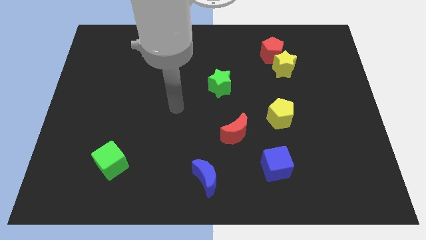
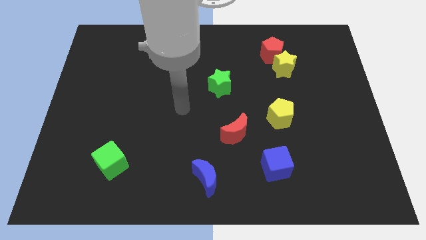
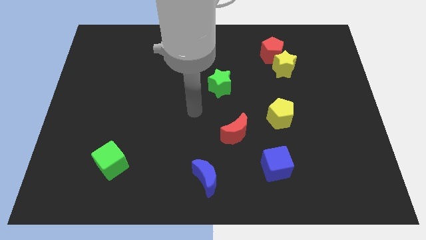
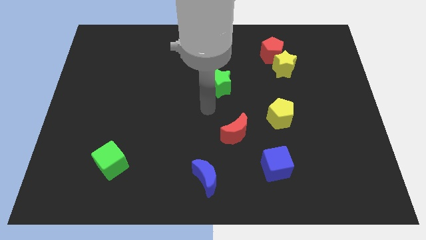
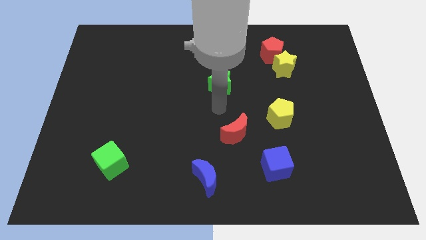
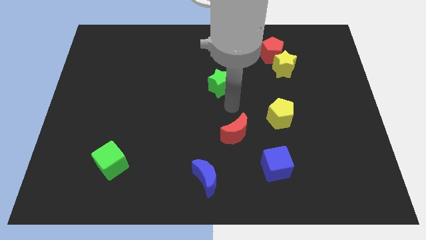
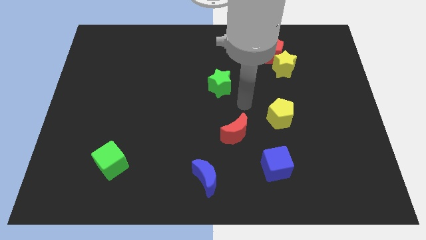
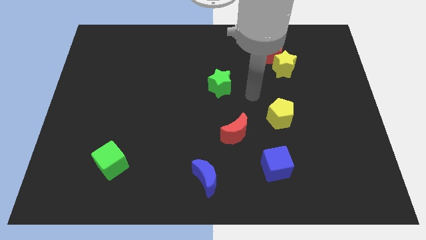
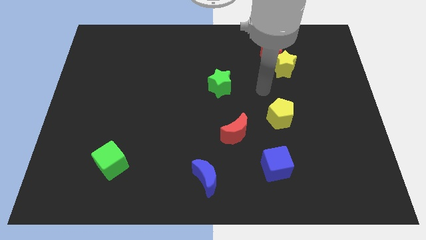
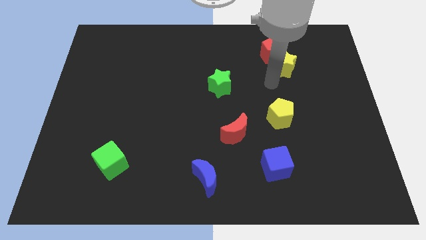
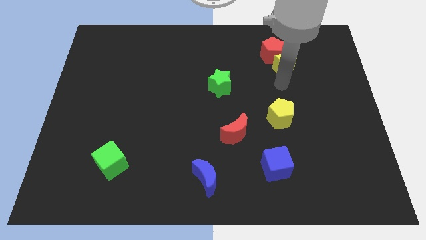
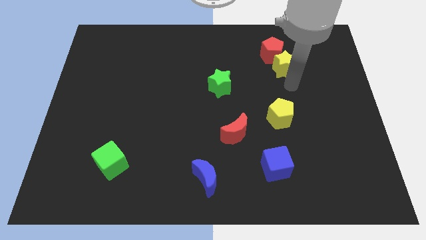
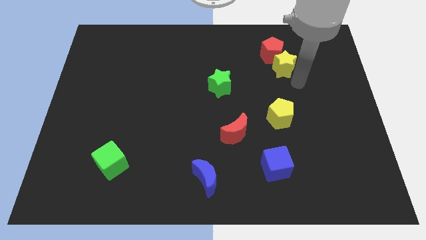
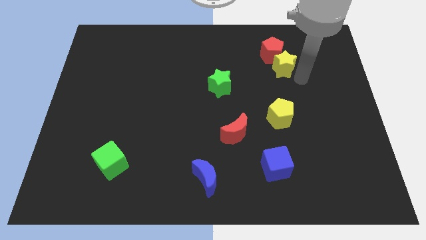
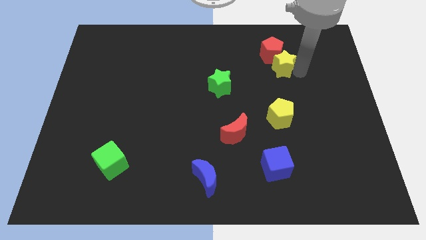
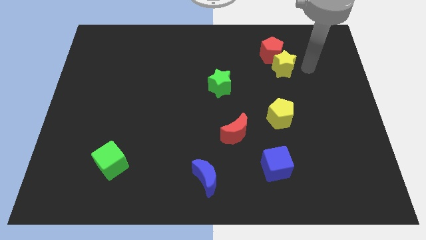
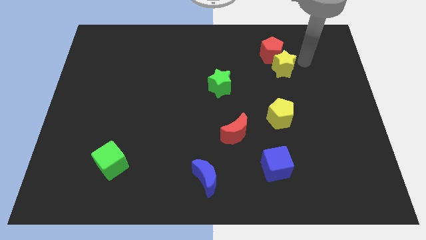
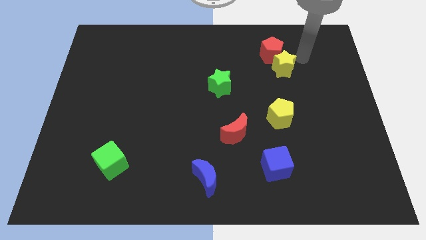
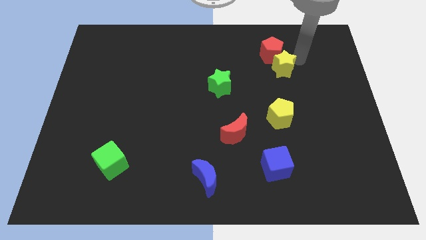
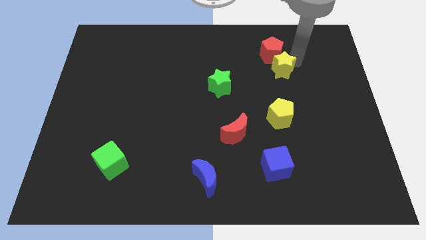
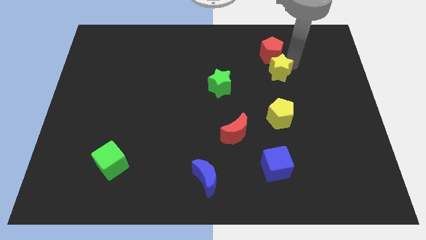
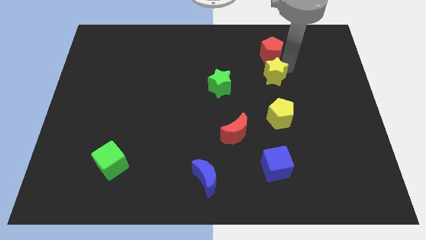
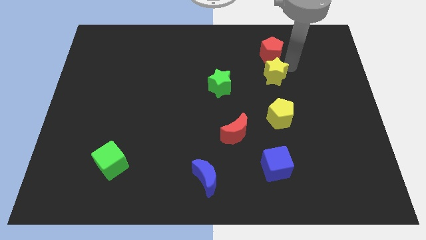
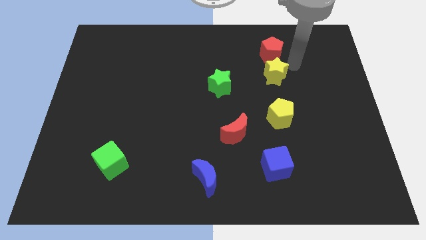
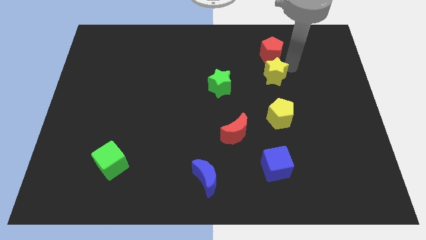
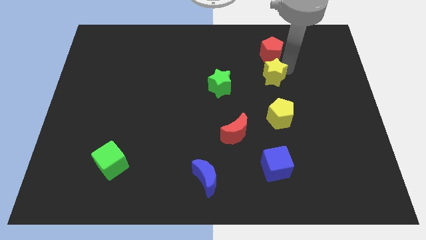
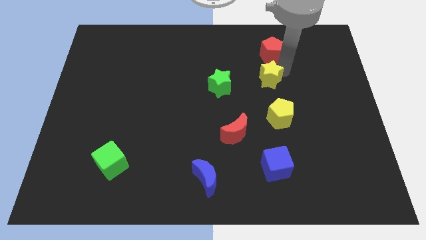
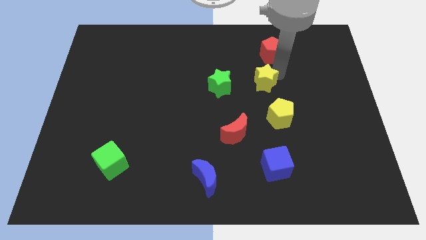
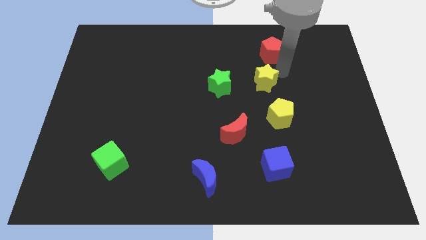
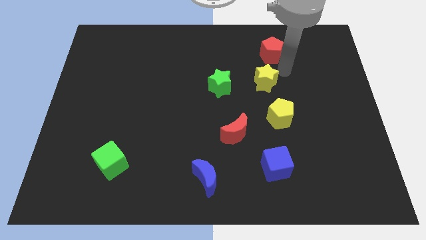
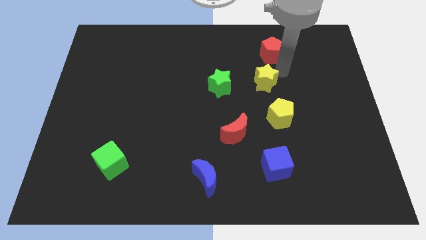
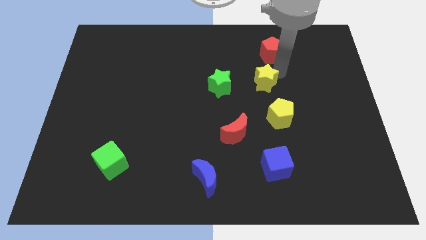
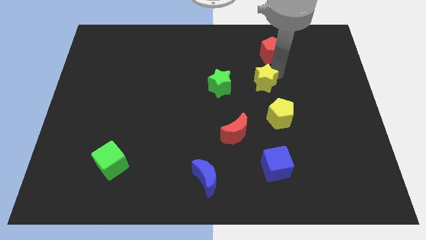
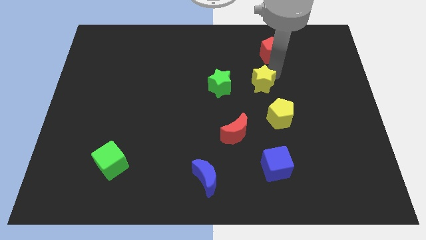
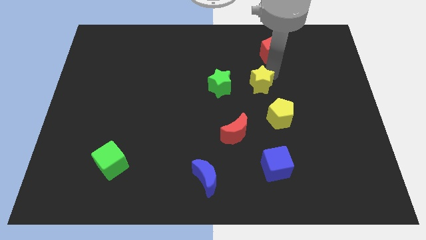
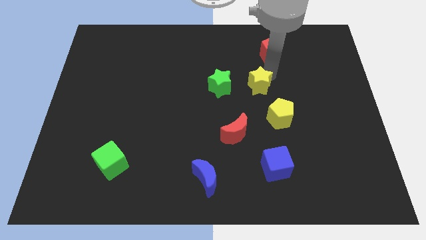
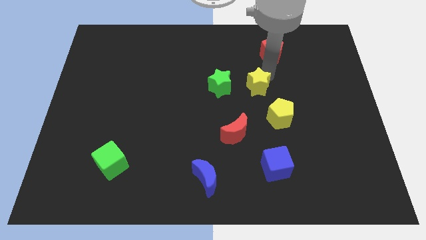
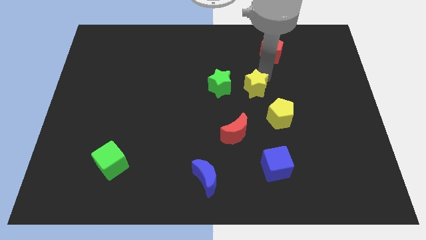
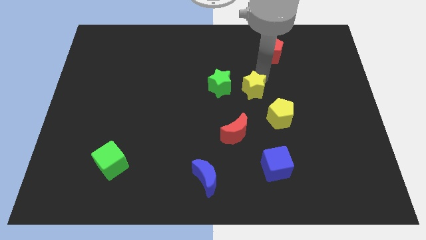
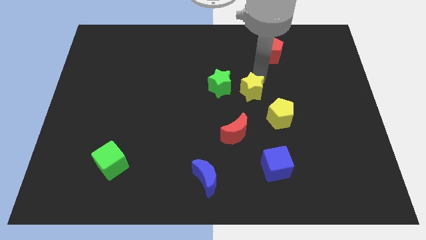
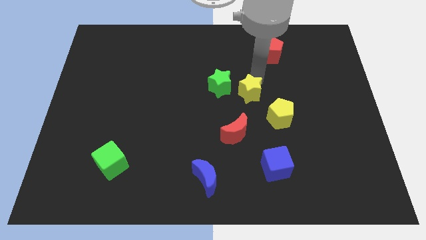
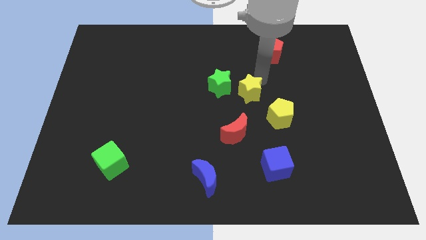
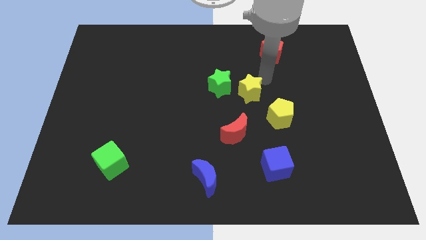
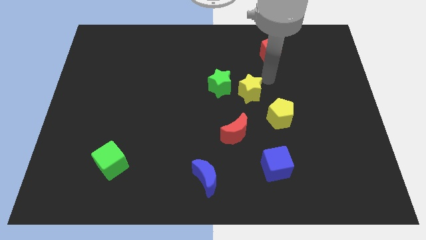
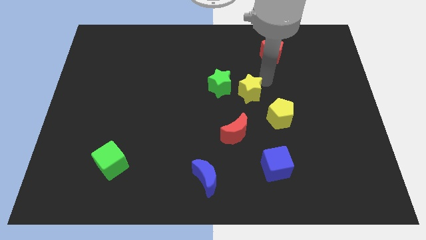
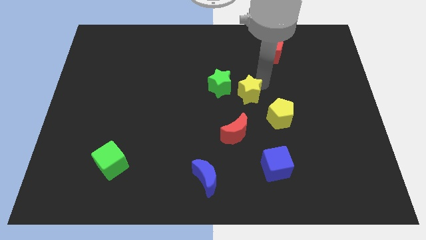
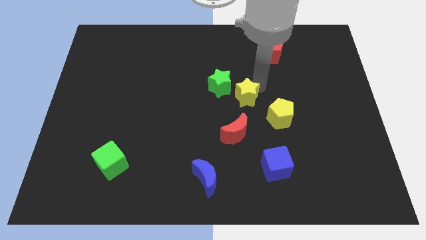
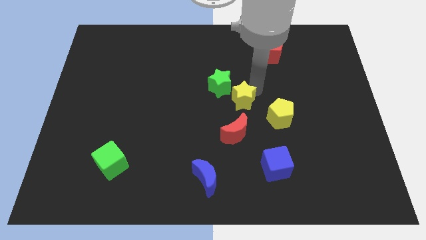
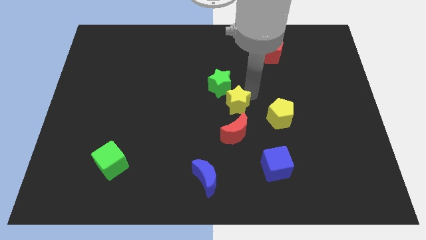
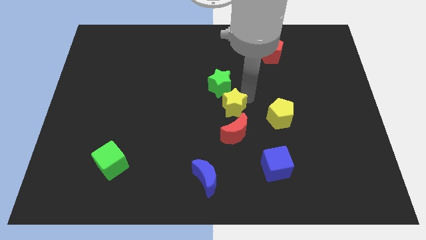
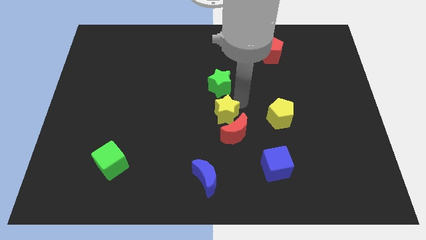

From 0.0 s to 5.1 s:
push the yellow star diagonally downwards and to the left

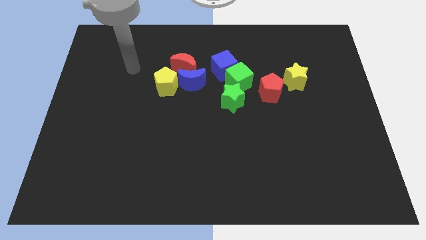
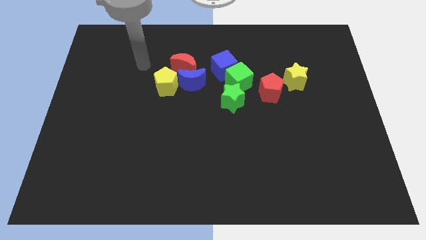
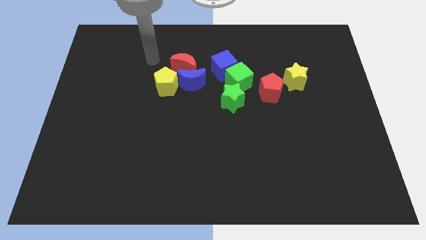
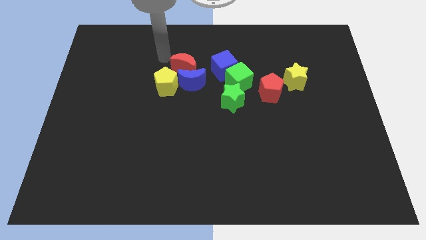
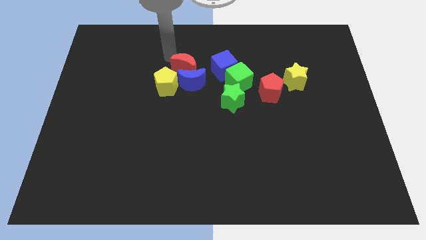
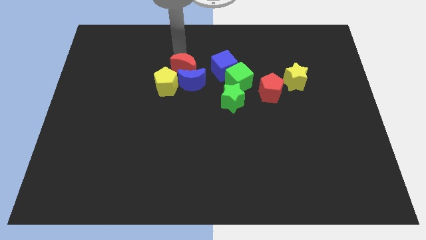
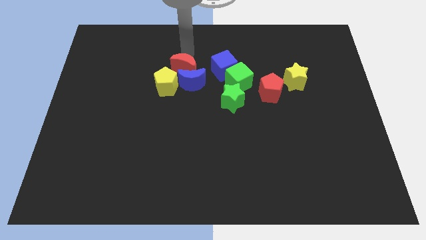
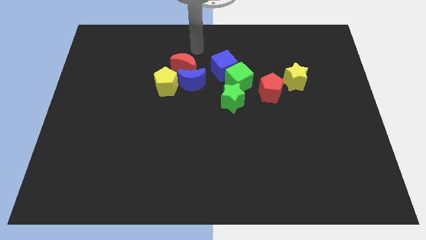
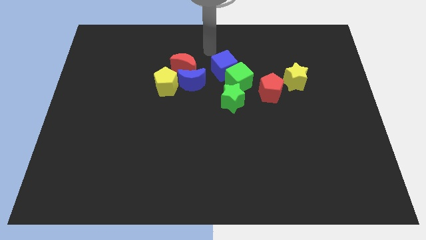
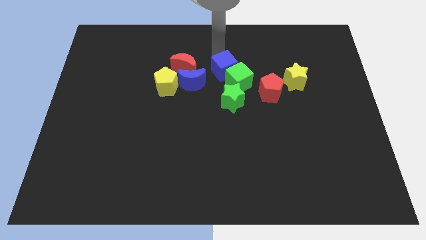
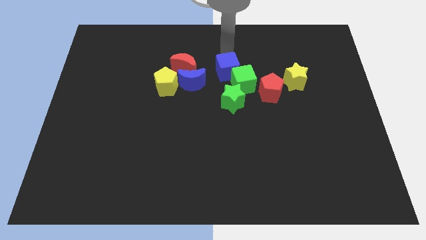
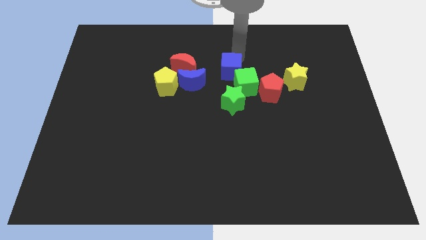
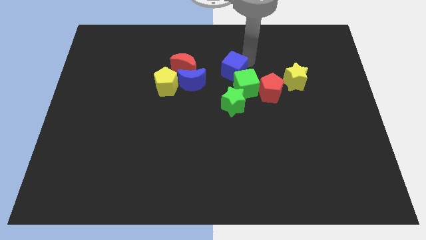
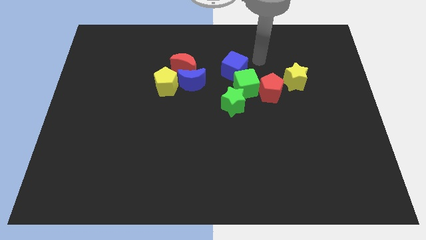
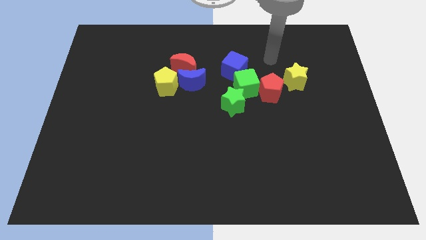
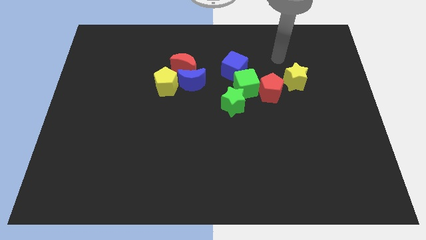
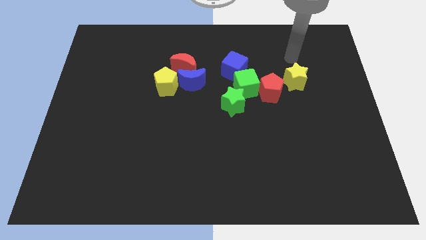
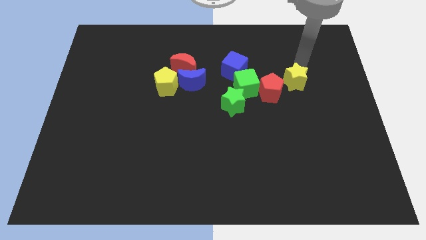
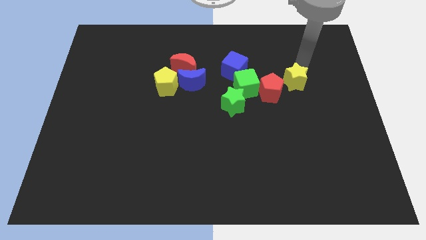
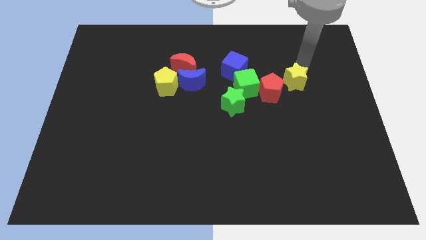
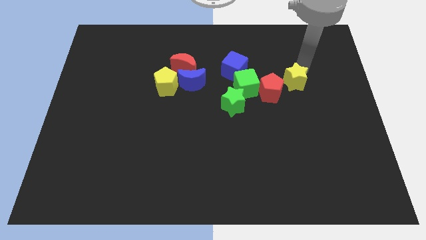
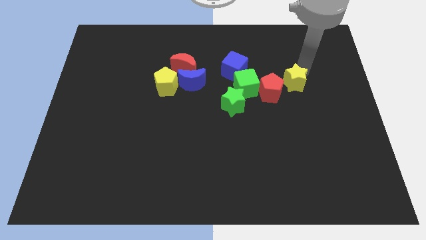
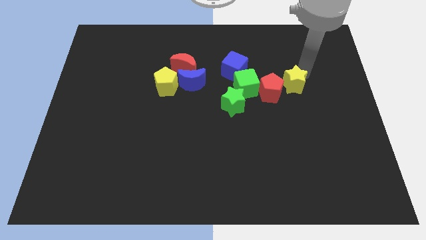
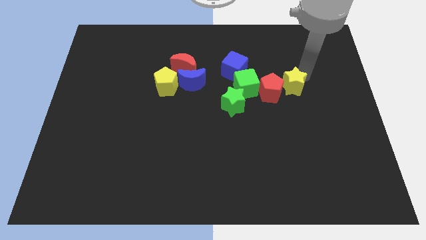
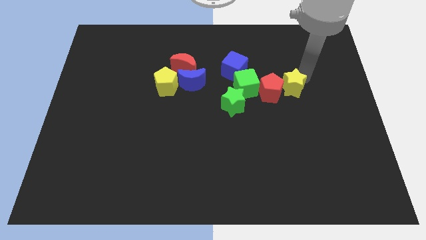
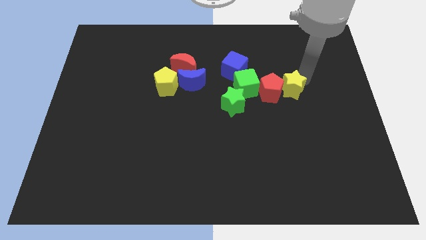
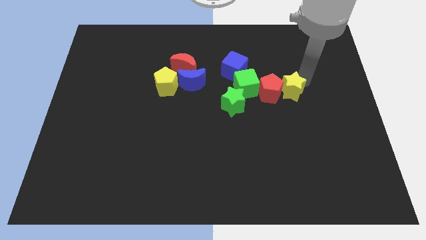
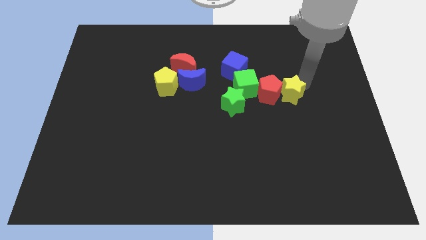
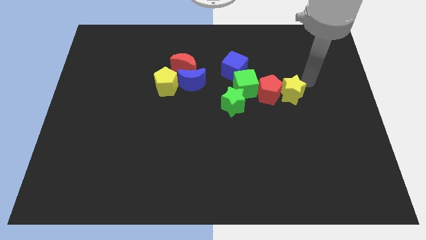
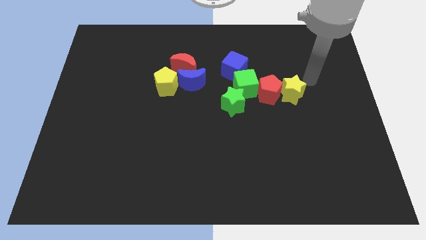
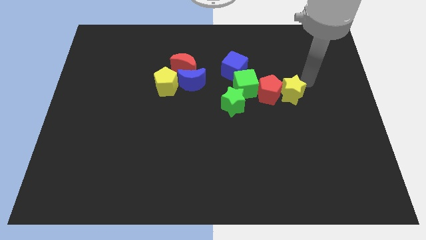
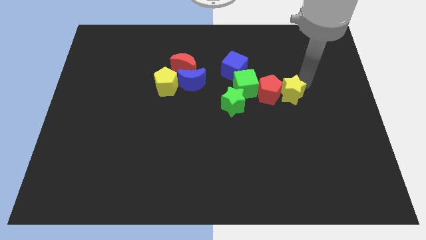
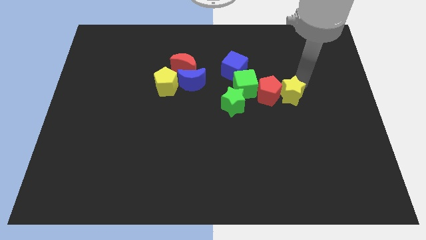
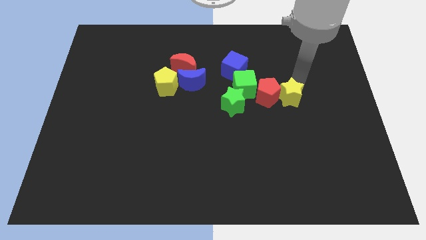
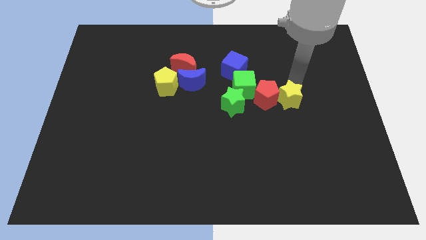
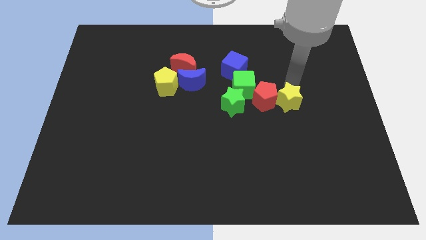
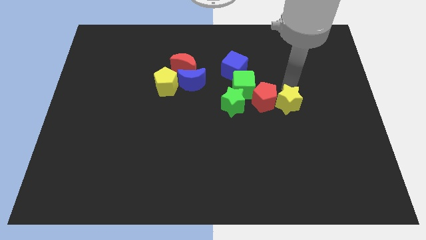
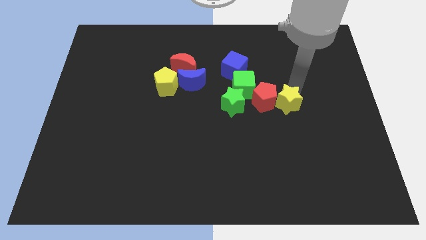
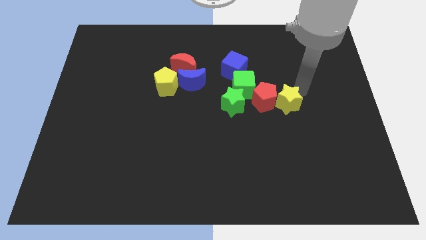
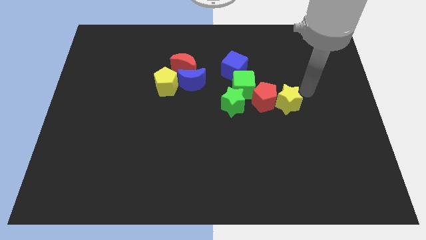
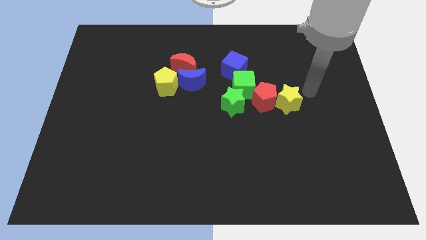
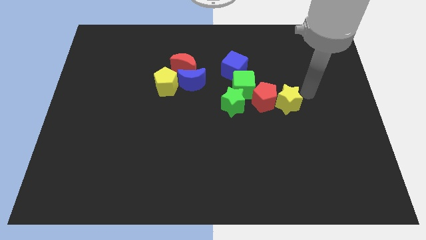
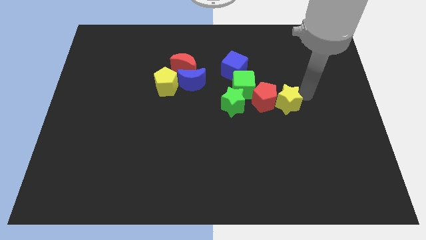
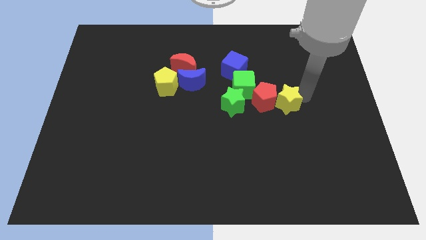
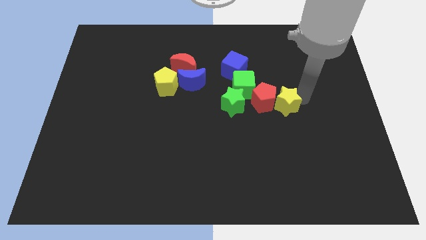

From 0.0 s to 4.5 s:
move the yellow star diagonally down and to the left a little
